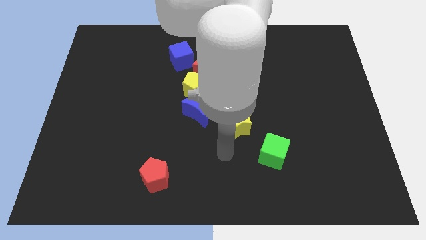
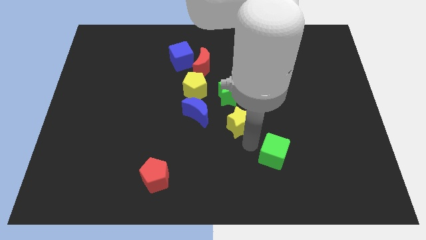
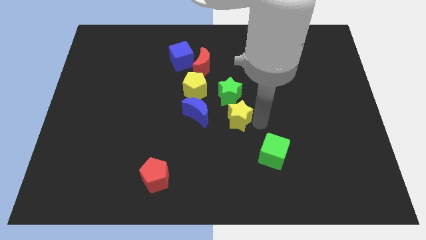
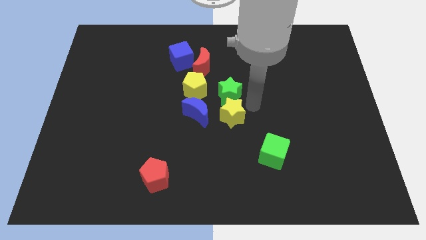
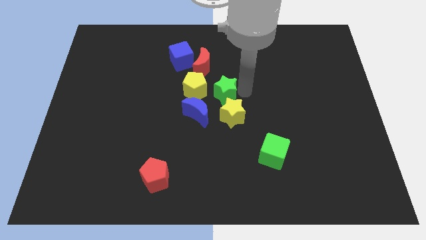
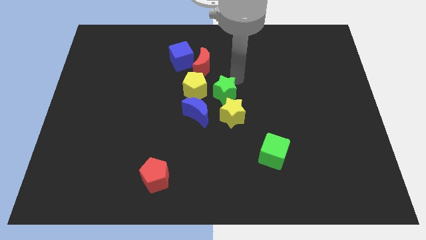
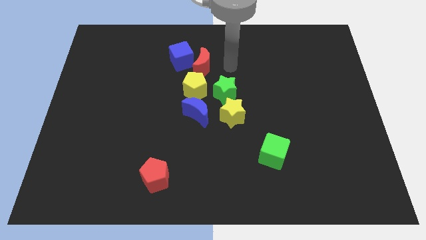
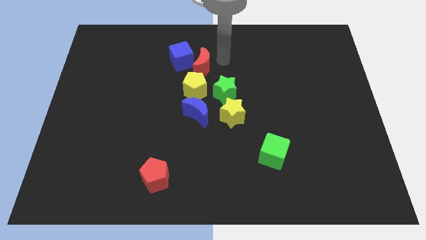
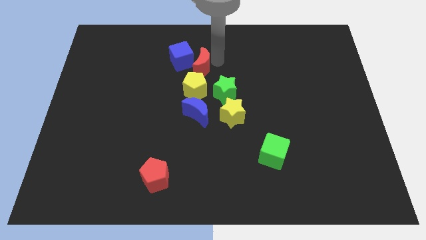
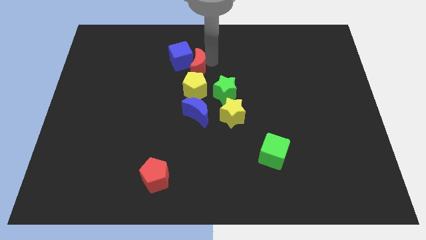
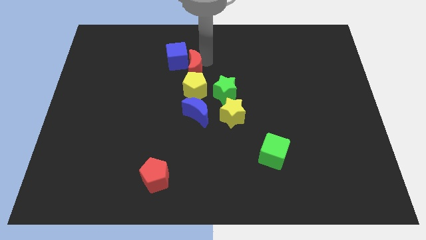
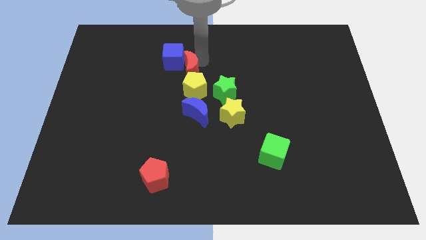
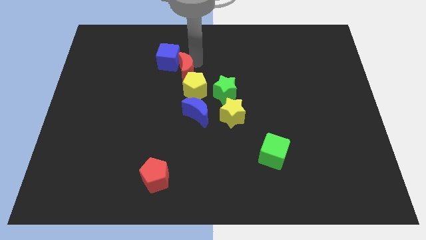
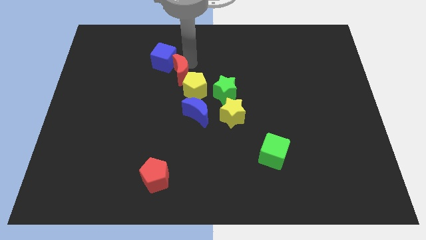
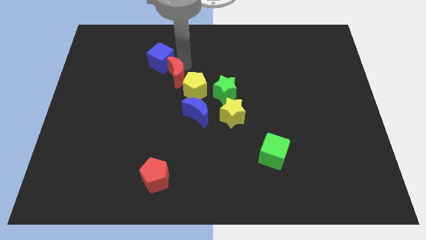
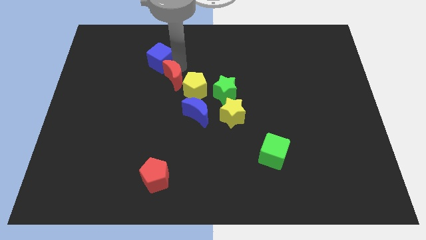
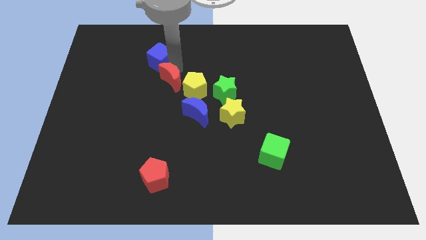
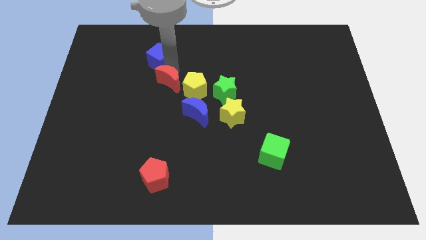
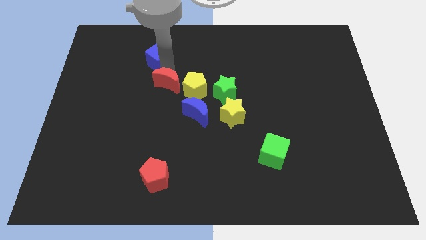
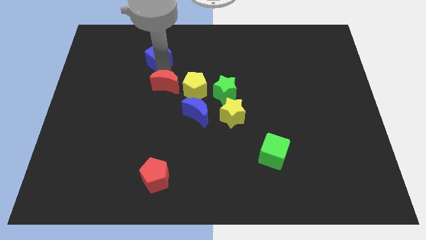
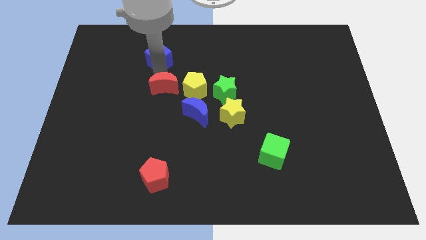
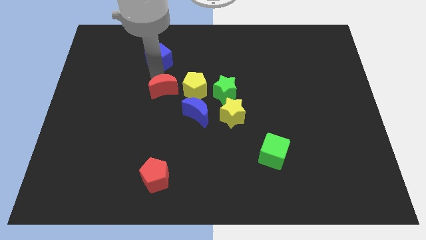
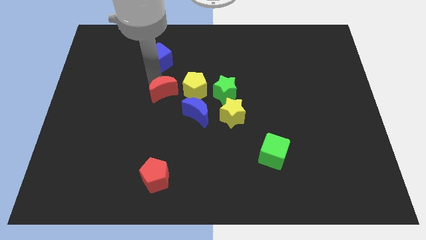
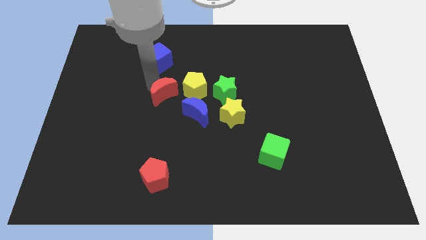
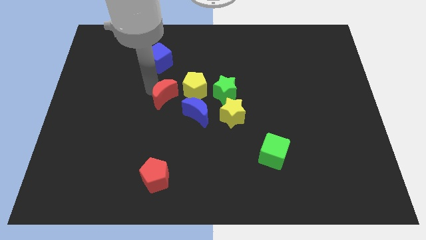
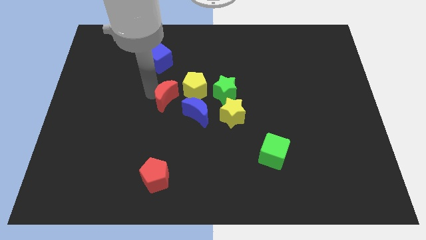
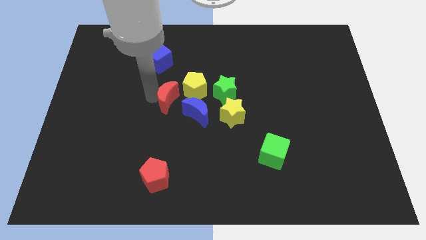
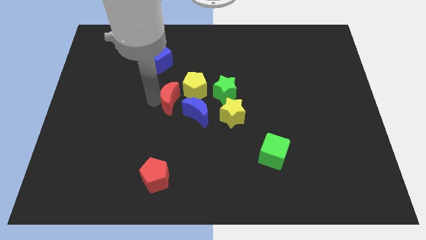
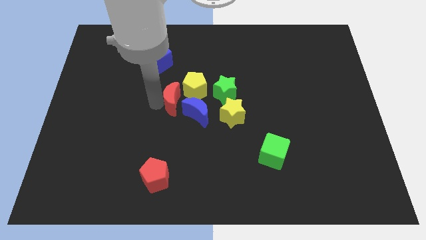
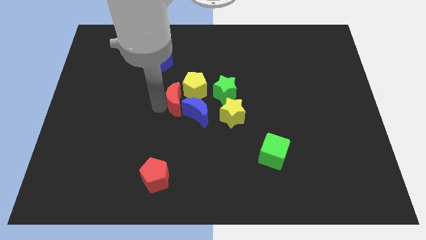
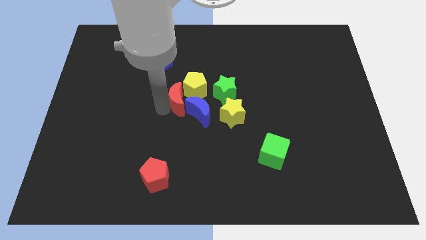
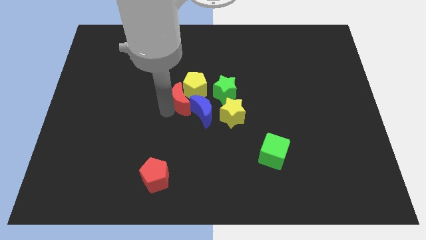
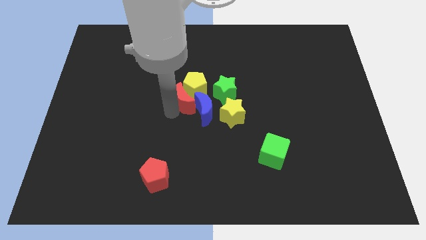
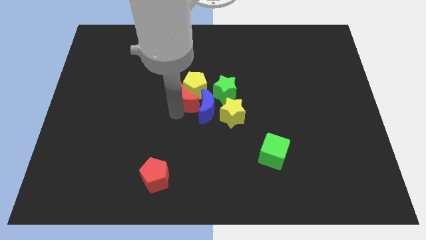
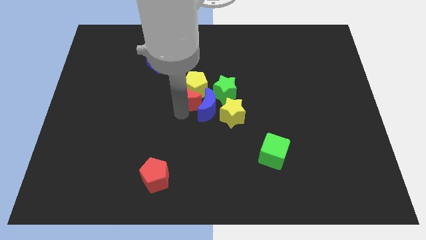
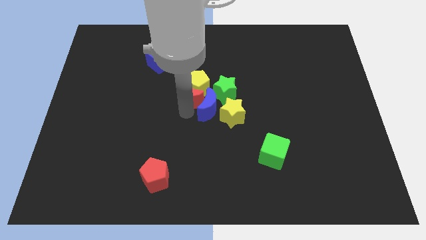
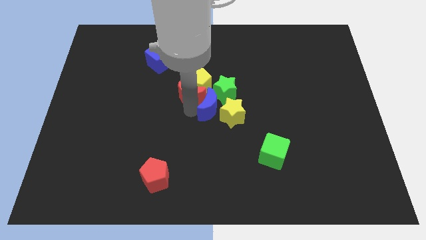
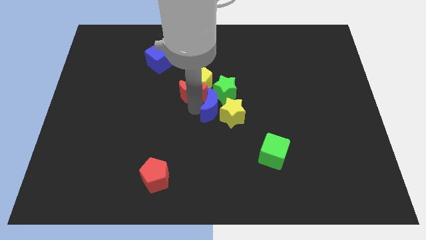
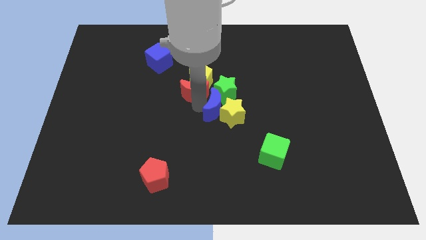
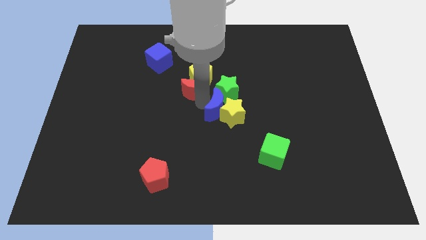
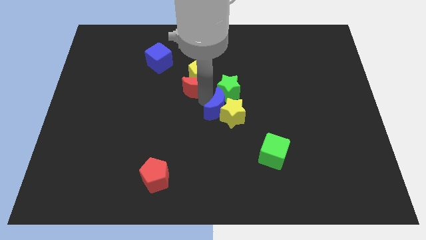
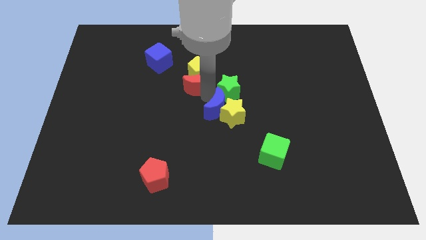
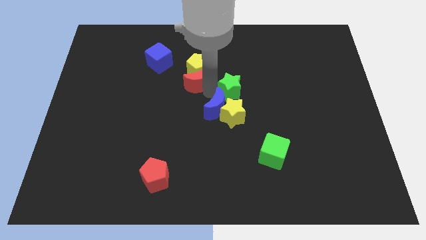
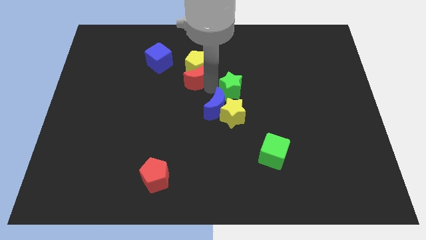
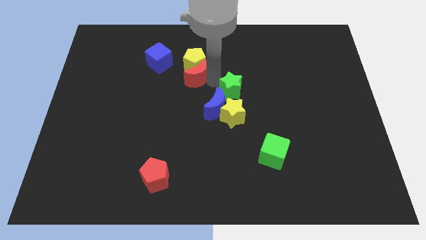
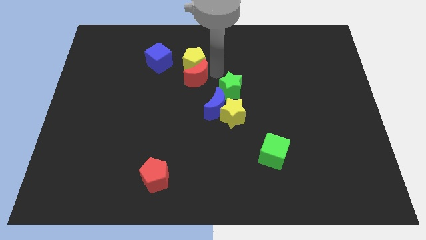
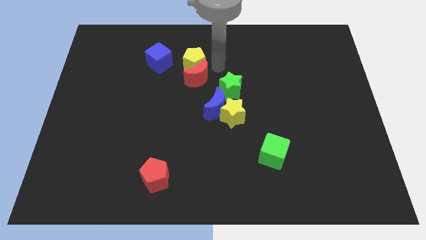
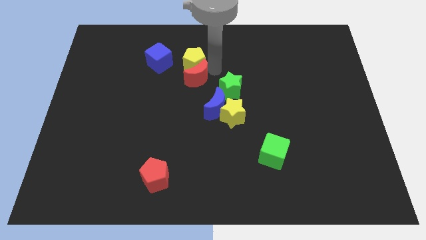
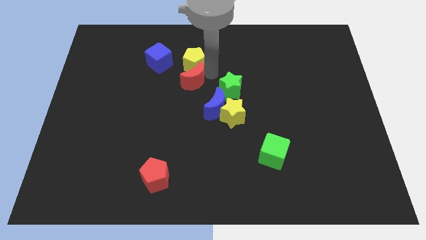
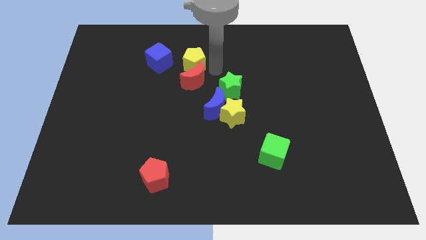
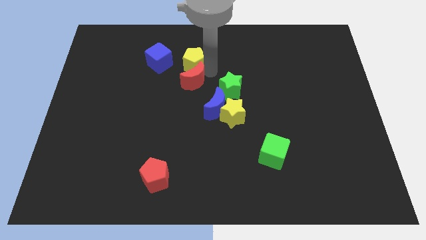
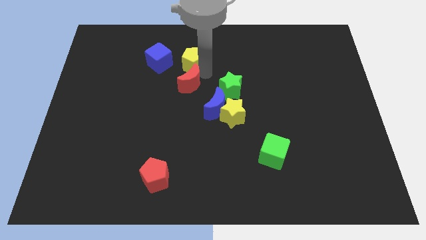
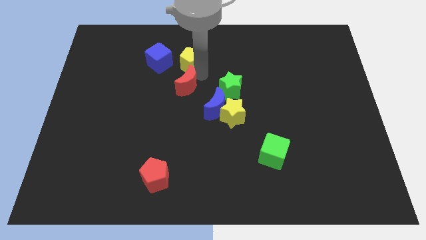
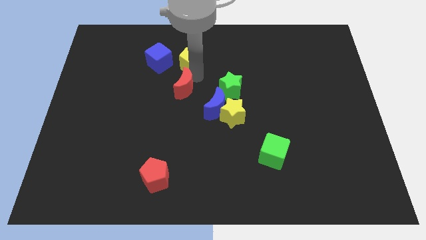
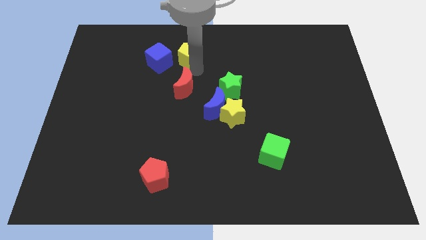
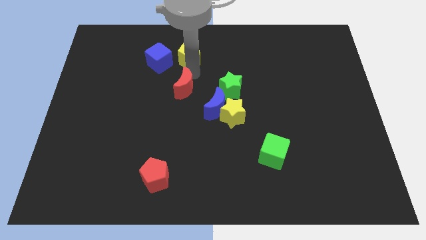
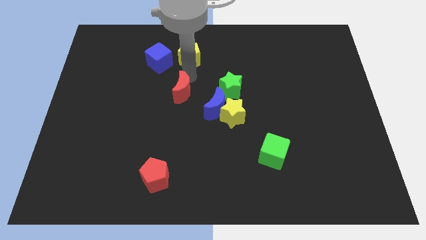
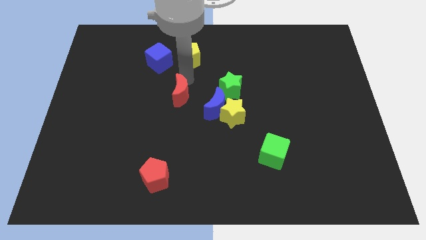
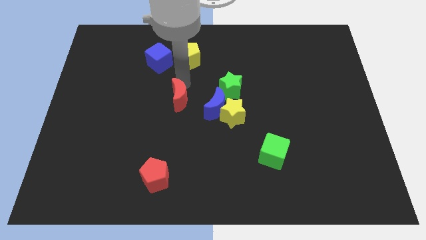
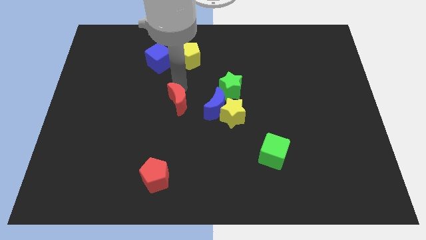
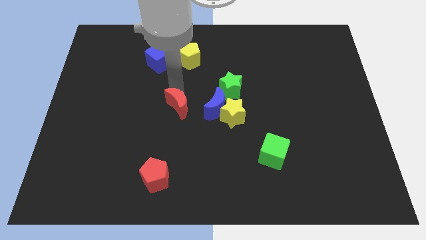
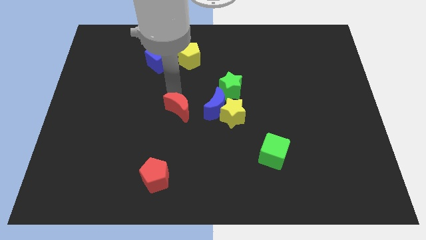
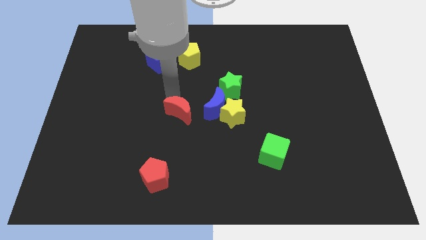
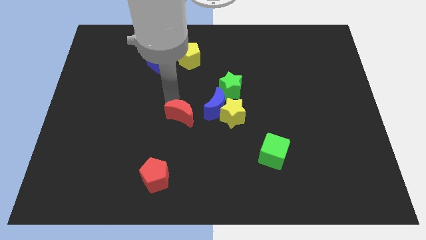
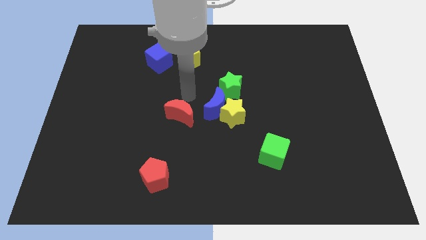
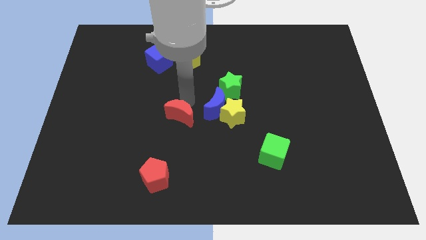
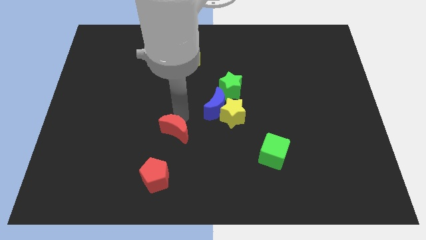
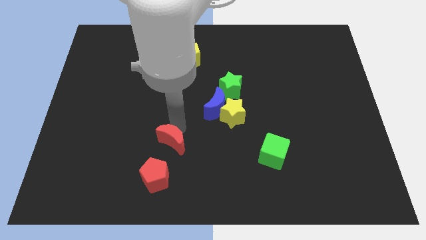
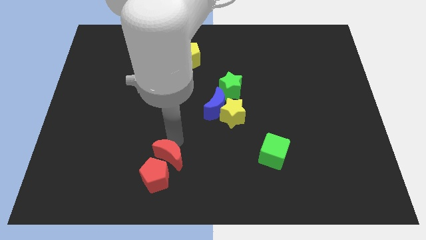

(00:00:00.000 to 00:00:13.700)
move the red moon close to the red pentagon
